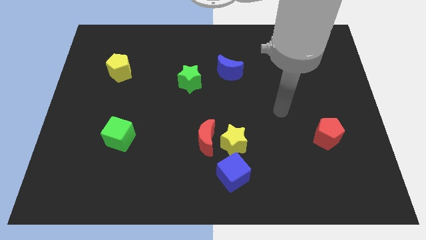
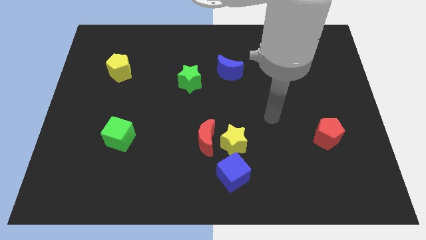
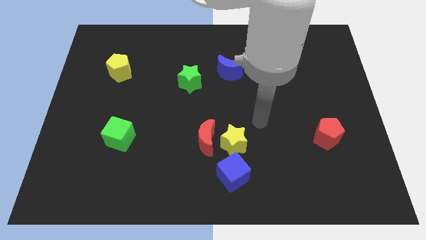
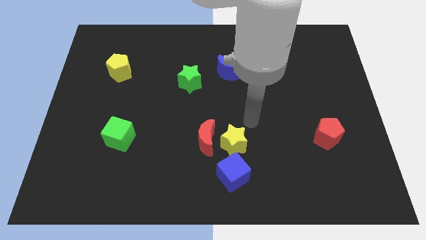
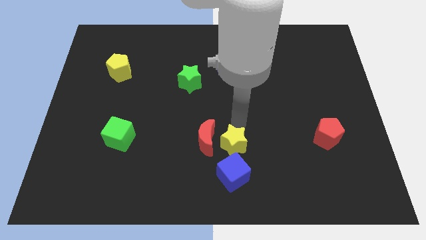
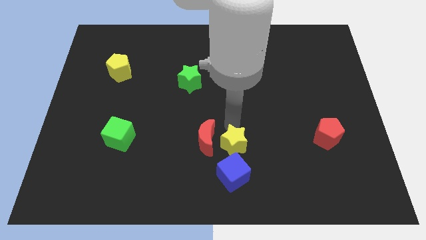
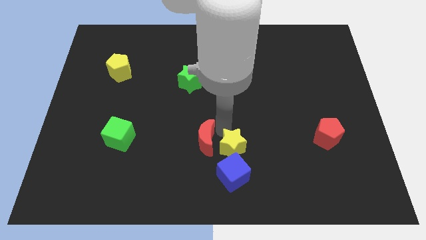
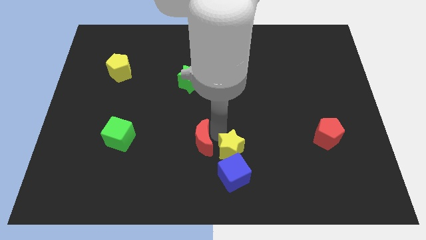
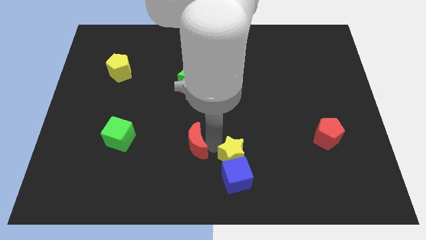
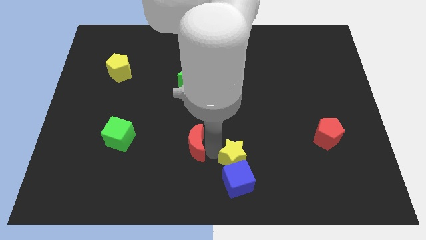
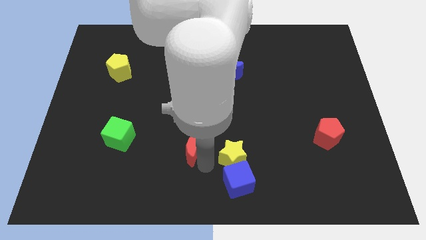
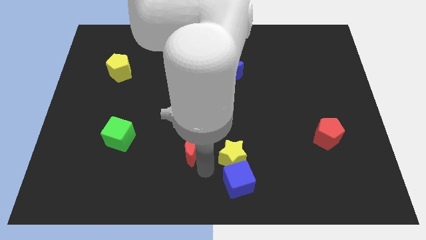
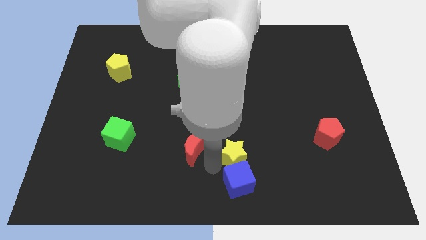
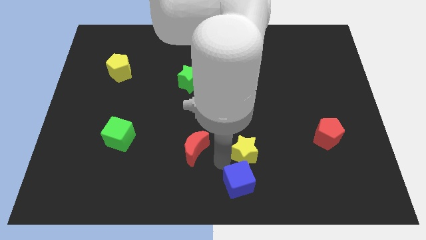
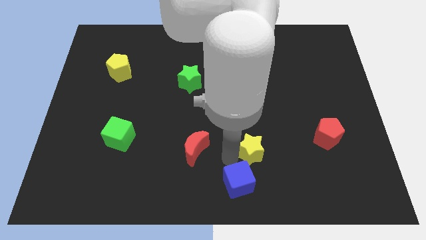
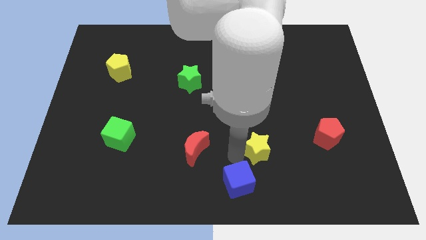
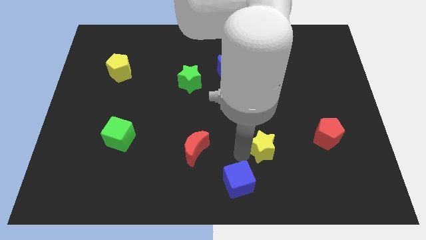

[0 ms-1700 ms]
separate the yellow star from the red moon and blue cube

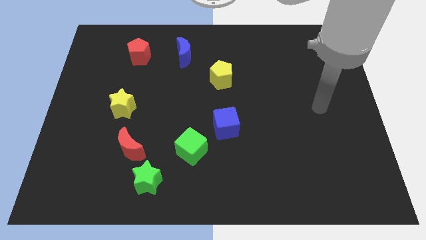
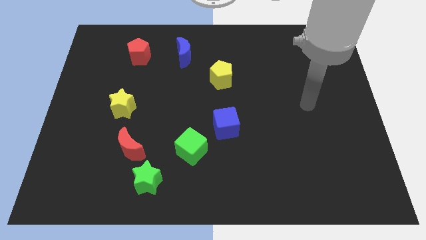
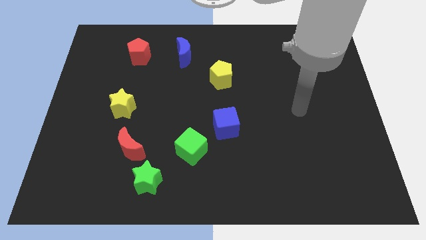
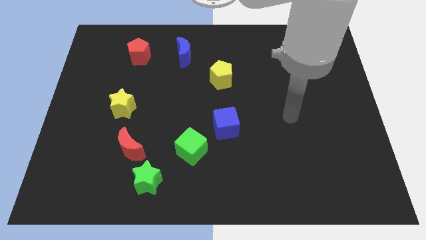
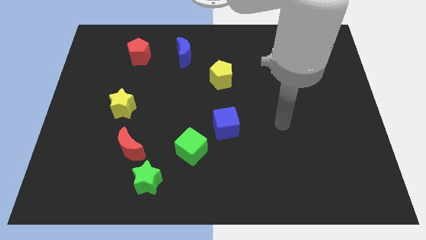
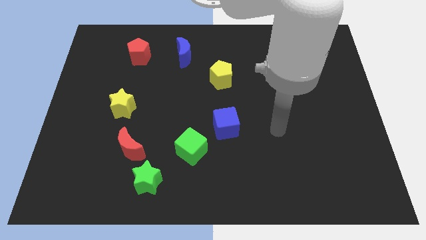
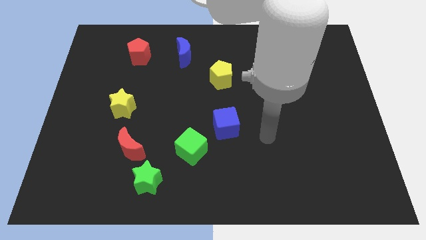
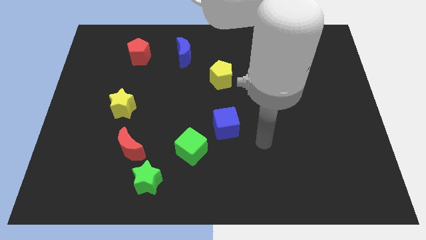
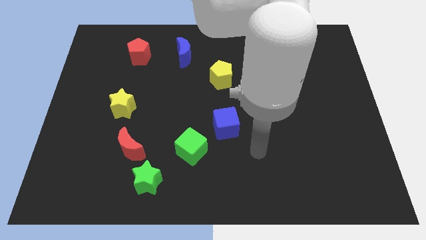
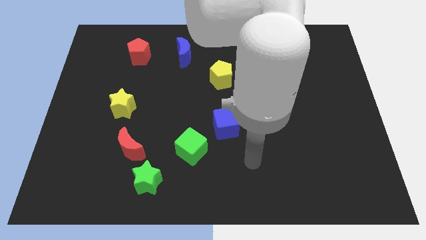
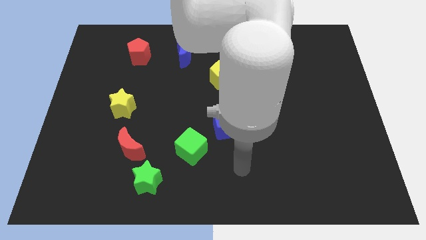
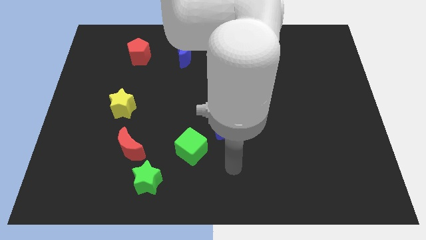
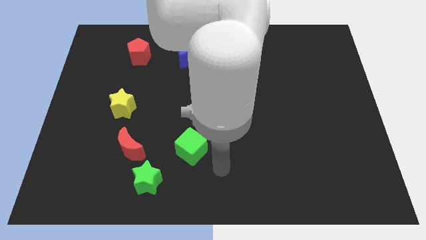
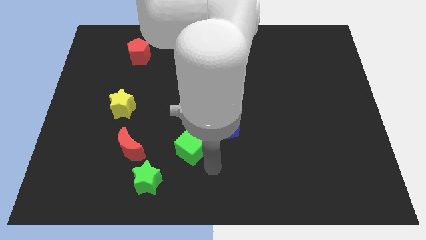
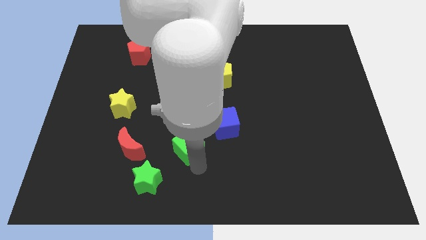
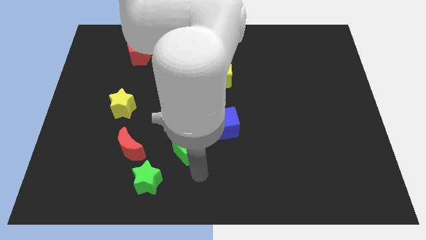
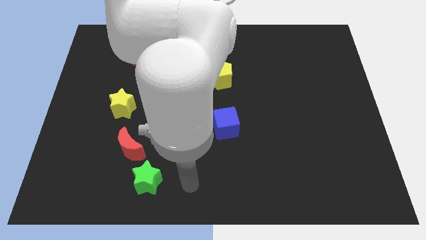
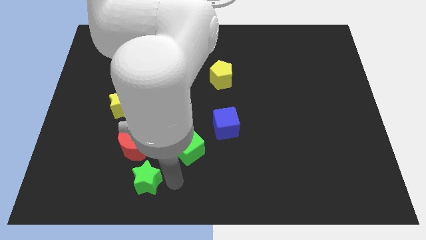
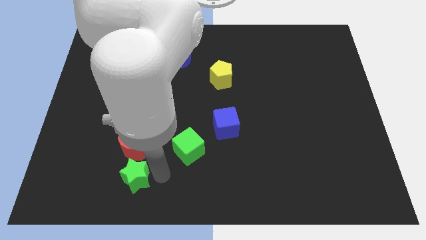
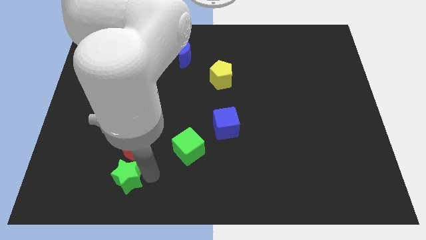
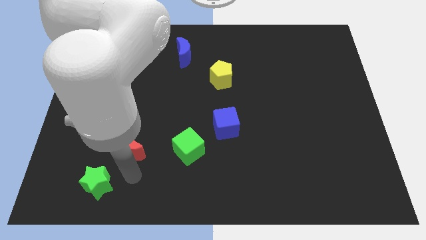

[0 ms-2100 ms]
separate the red moon from the green star

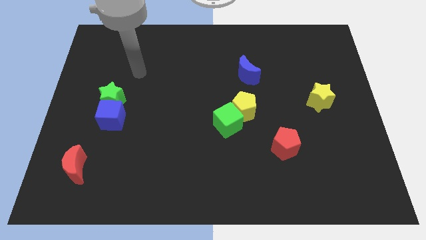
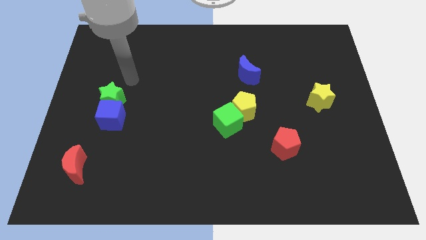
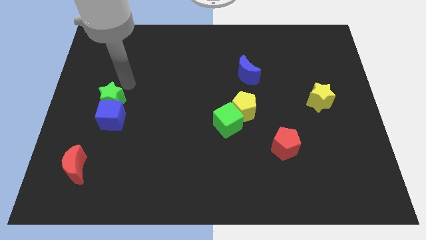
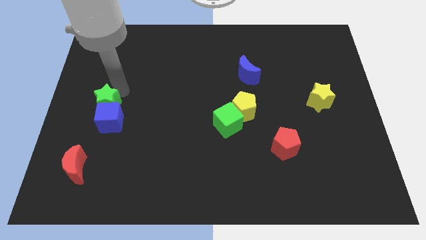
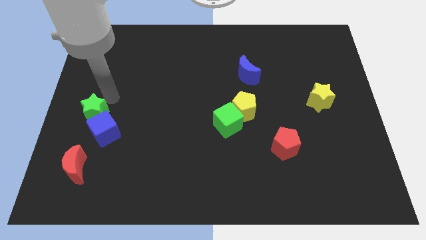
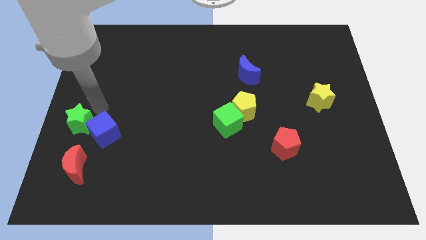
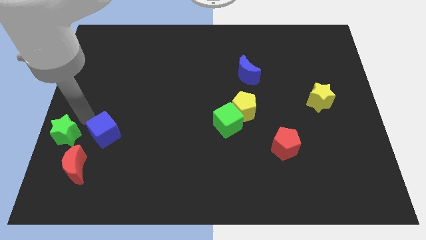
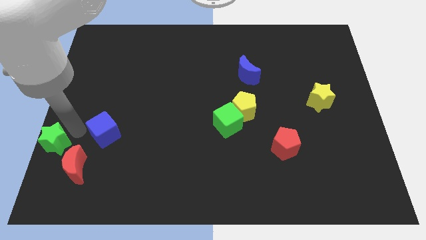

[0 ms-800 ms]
separate the blue cube from the green star

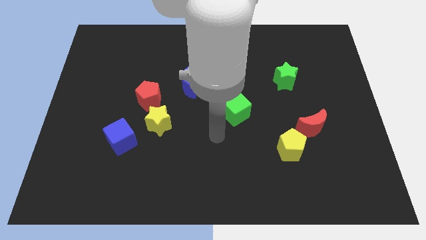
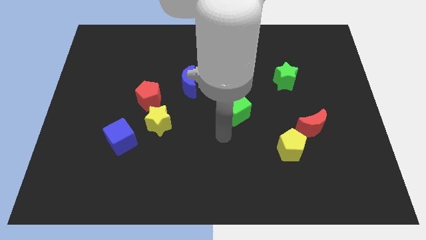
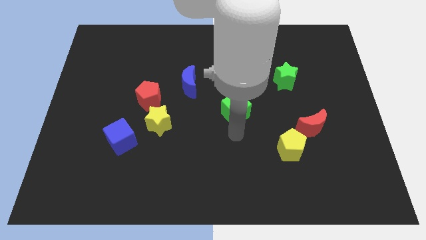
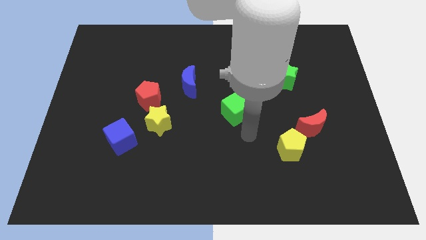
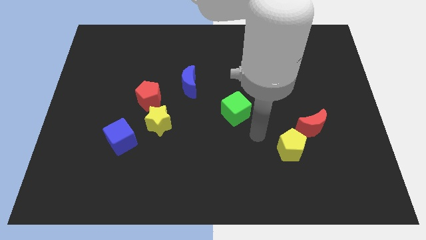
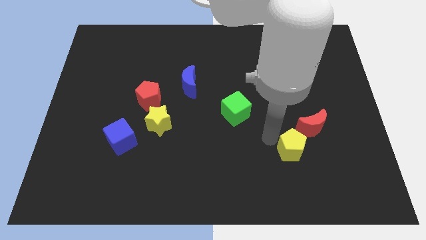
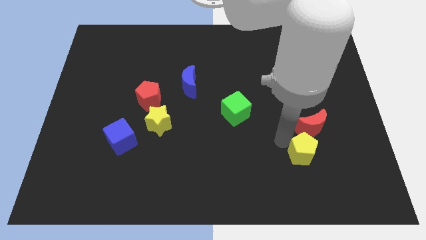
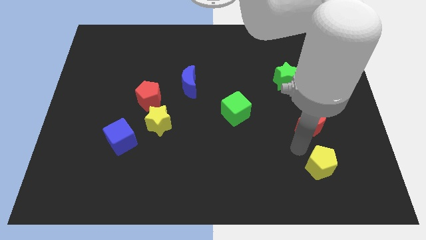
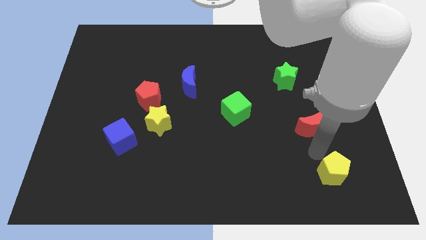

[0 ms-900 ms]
pull the red moon apart from the yellow pentagon

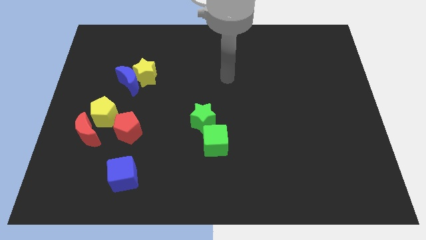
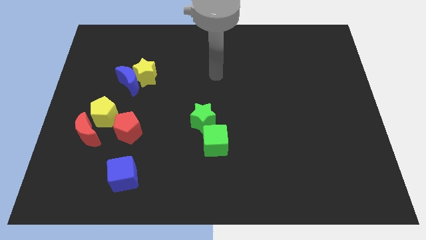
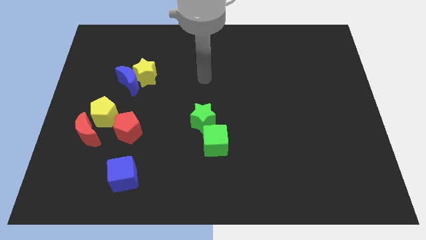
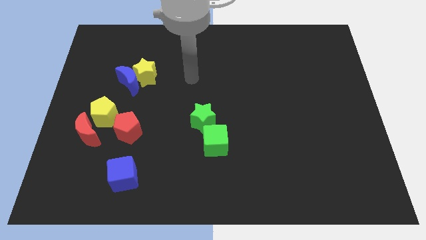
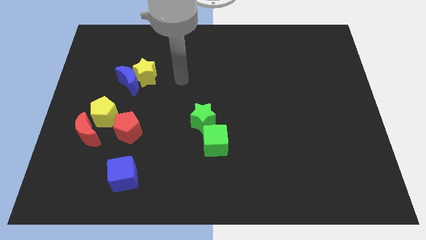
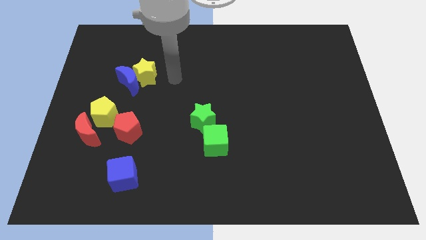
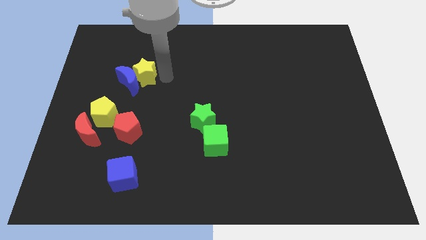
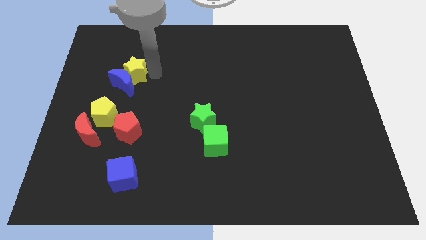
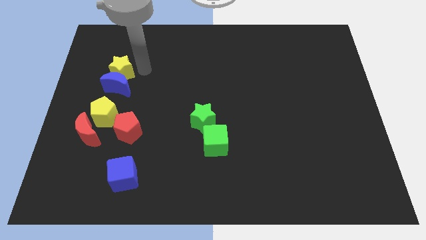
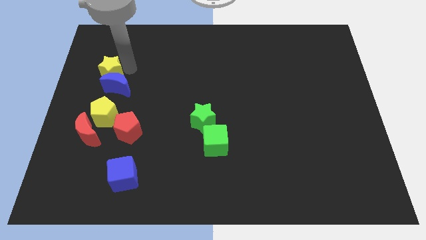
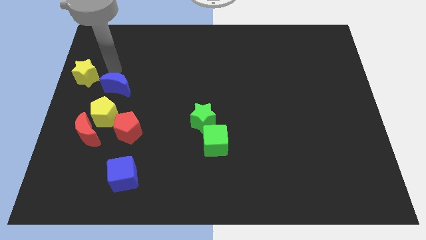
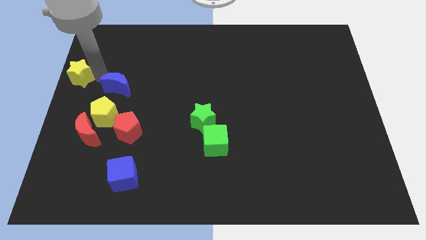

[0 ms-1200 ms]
move the blue moon away from the yellow star

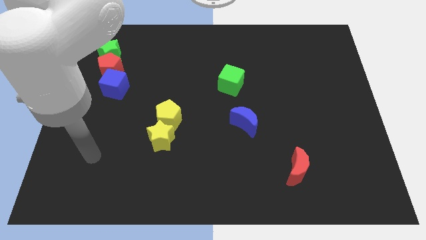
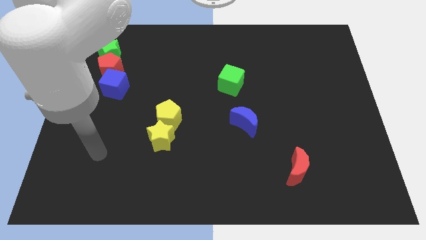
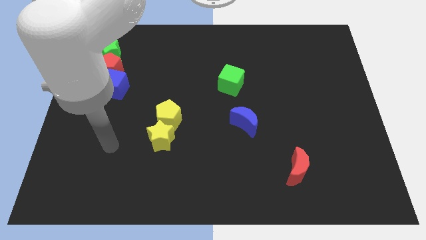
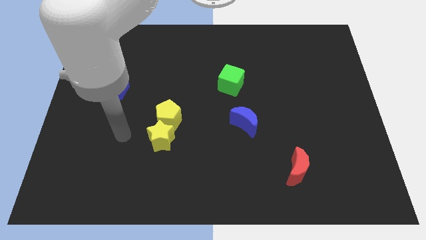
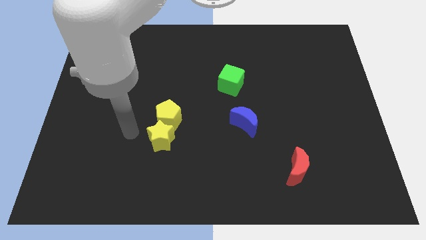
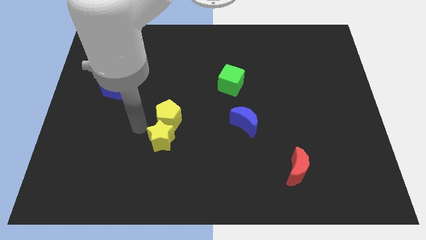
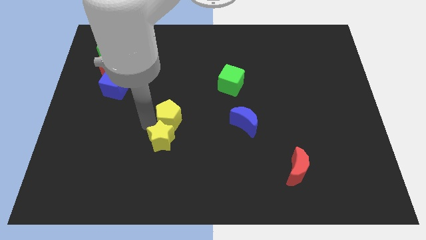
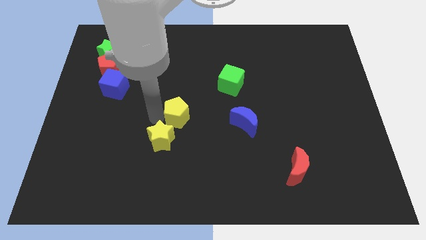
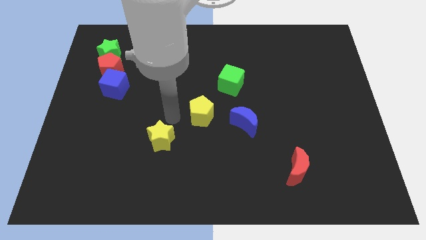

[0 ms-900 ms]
pull the yellow star apart from the yellow pentagon

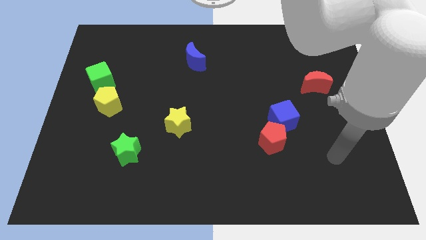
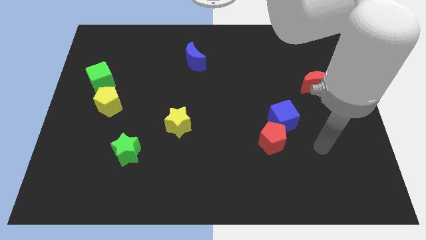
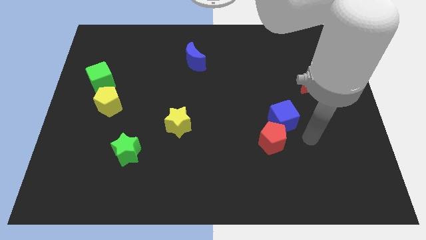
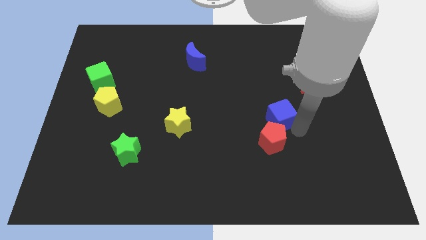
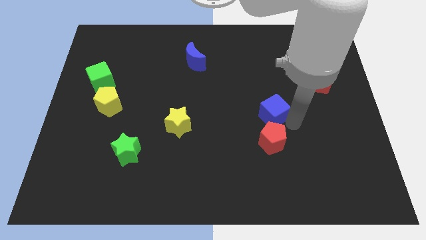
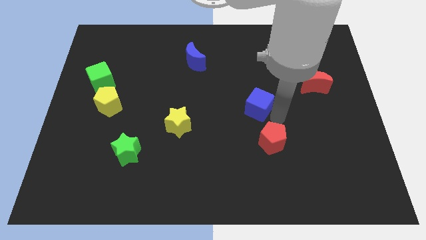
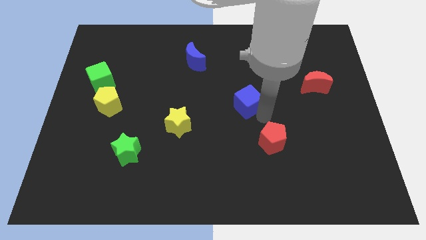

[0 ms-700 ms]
pull the red pentagon apart from the blue cube

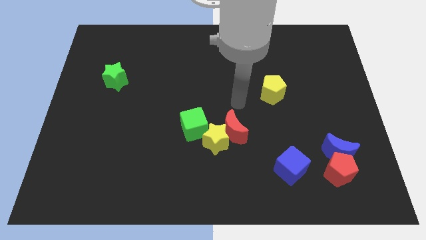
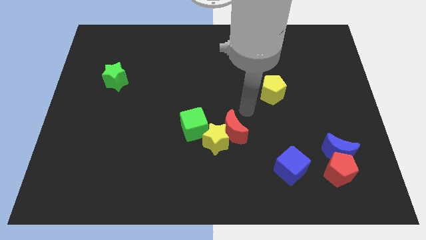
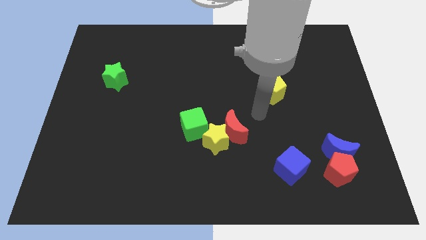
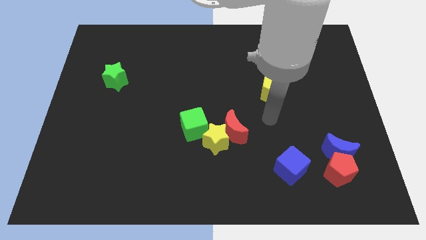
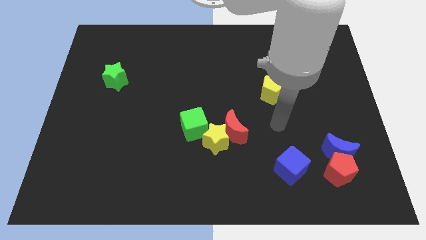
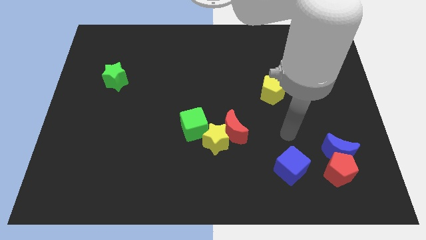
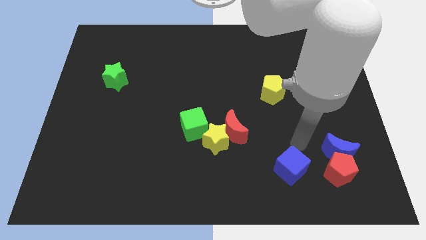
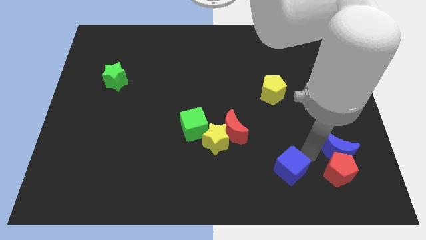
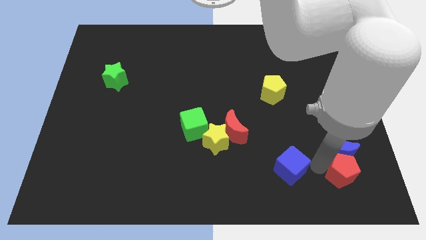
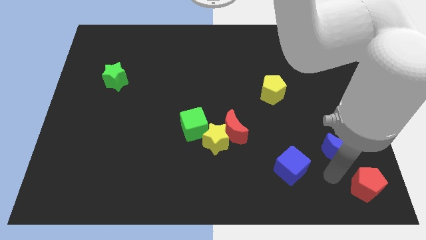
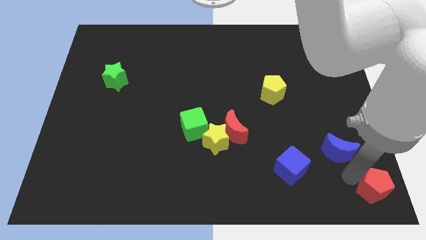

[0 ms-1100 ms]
move the blue moon away from the red pentagon
